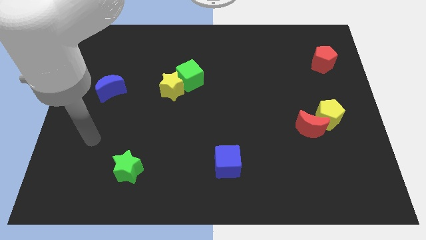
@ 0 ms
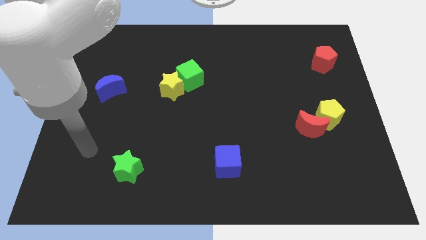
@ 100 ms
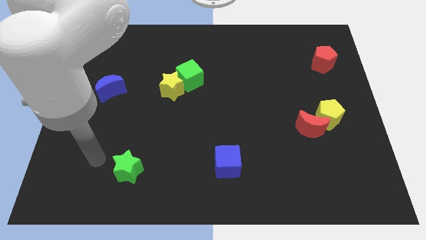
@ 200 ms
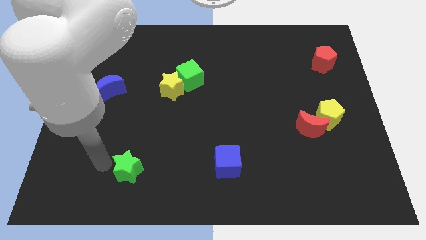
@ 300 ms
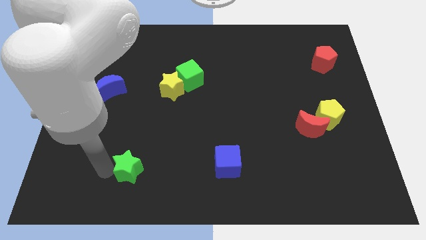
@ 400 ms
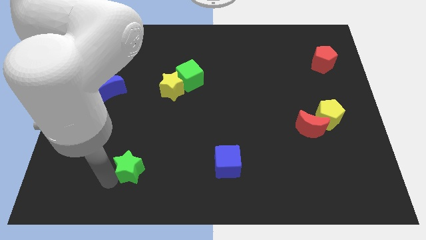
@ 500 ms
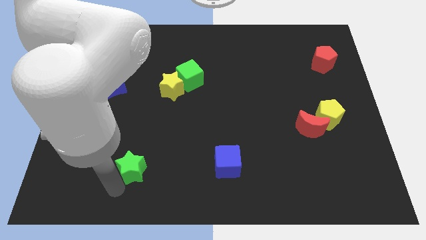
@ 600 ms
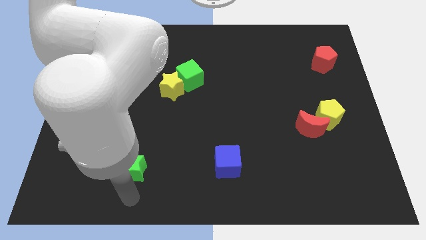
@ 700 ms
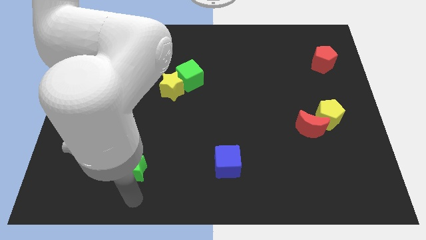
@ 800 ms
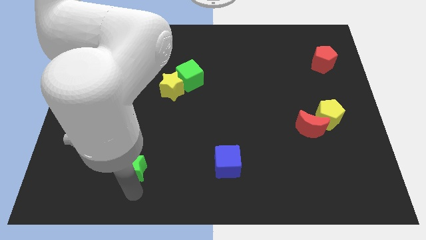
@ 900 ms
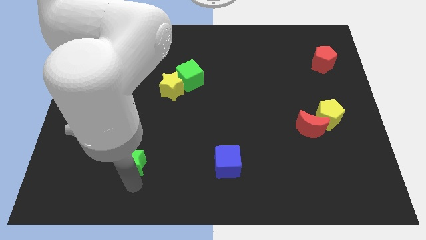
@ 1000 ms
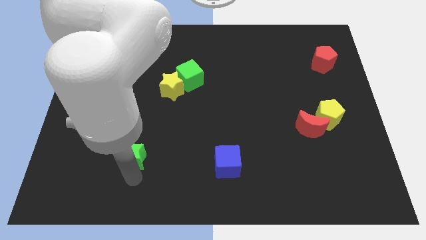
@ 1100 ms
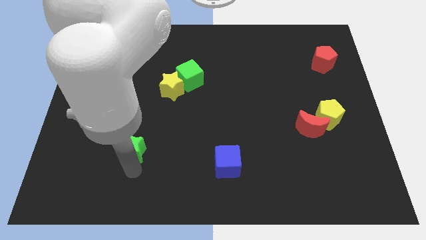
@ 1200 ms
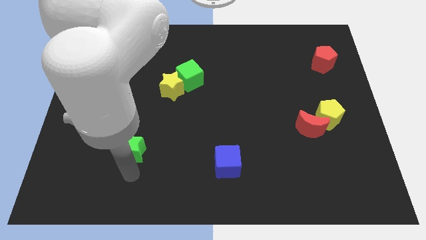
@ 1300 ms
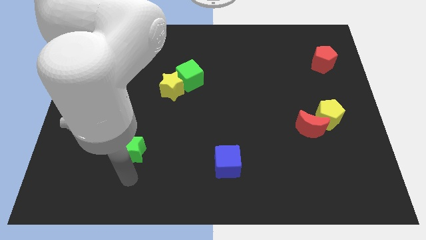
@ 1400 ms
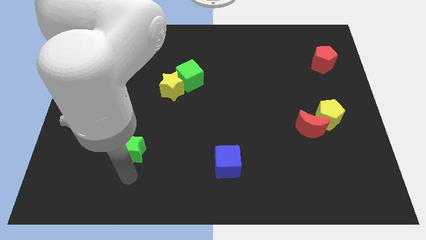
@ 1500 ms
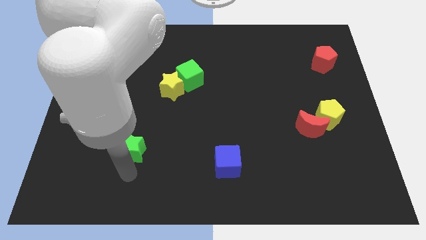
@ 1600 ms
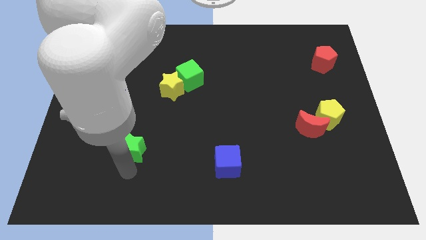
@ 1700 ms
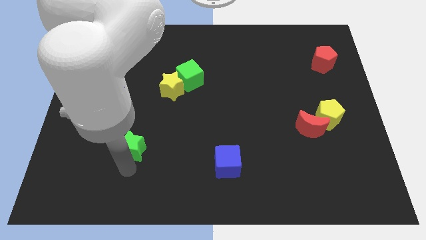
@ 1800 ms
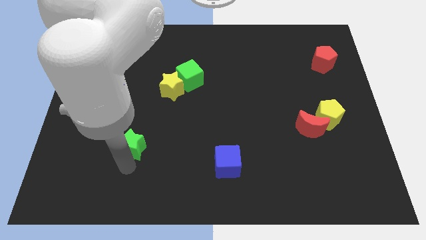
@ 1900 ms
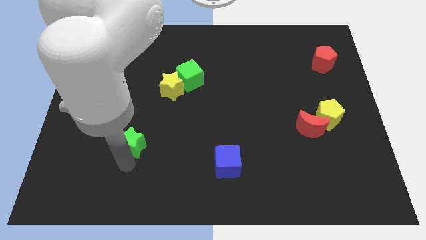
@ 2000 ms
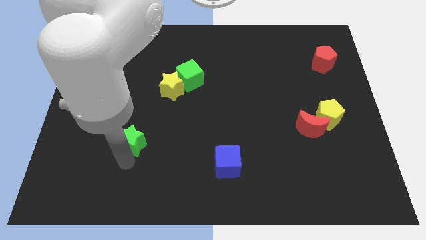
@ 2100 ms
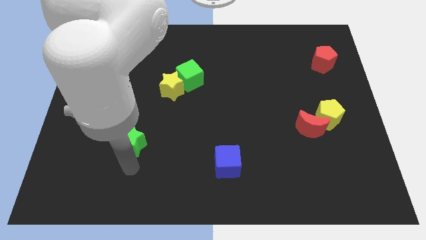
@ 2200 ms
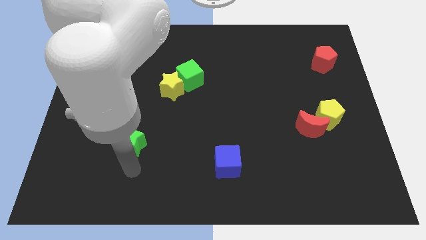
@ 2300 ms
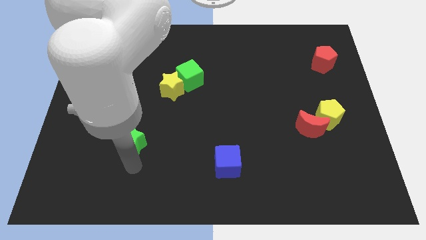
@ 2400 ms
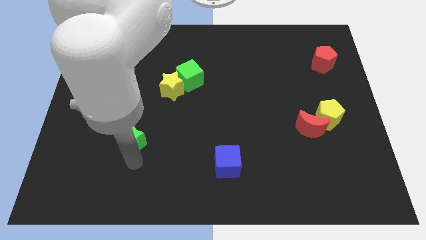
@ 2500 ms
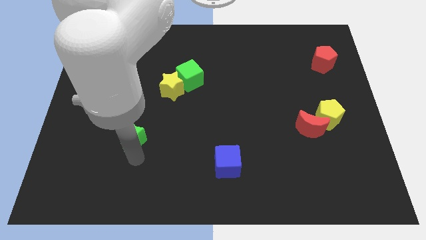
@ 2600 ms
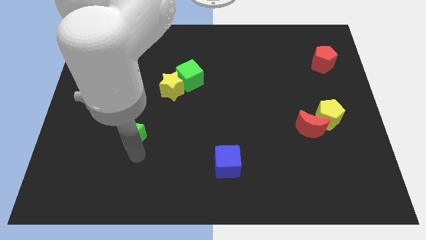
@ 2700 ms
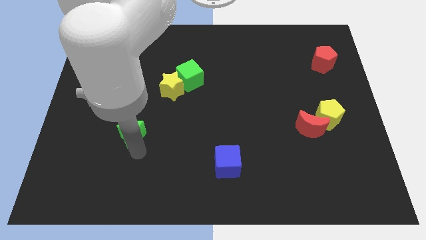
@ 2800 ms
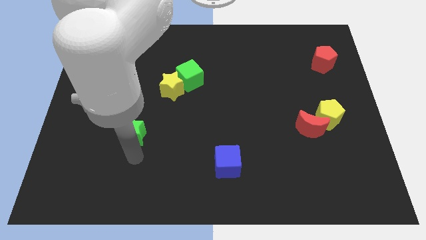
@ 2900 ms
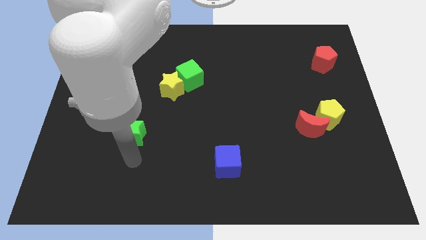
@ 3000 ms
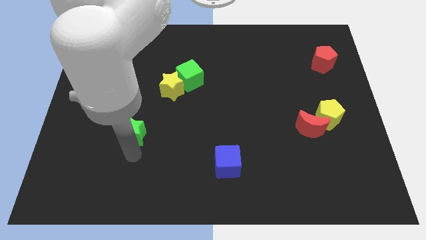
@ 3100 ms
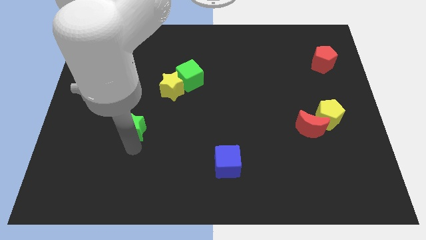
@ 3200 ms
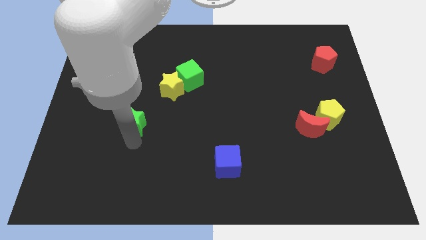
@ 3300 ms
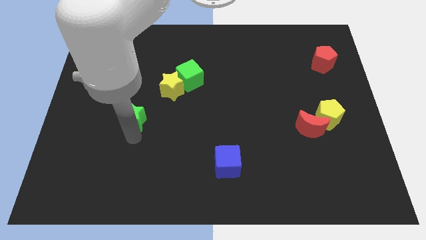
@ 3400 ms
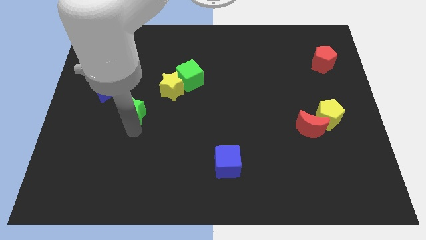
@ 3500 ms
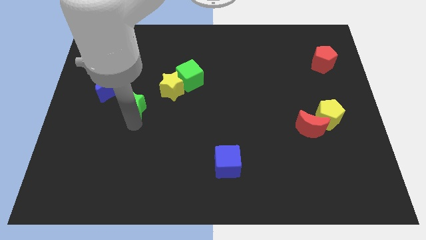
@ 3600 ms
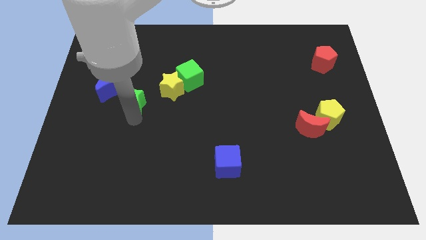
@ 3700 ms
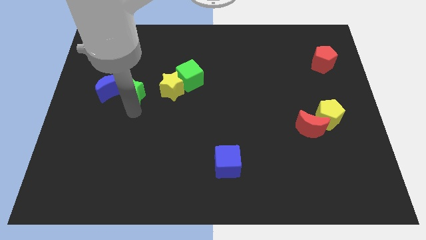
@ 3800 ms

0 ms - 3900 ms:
move the green star upwards

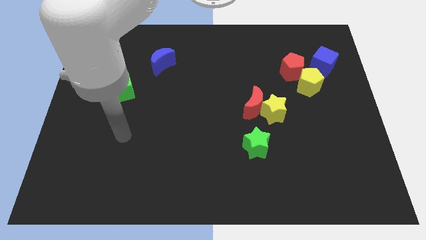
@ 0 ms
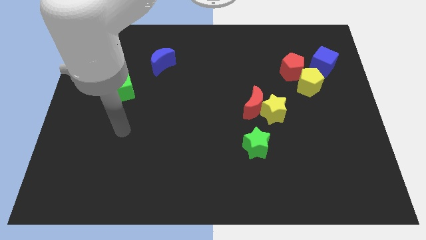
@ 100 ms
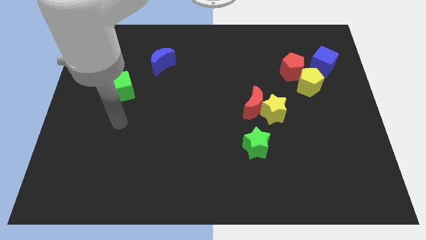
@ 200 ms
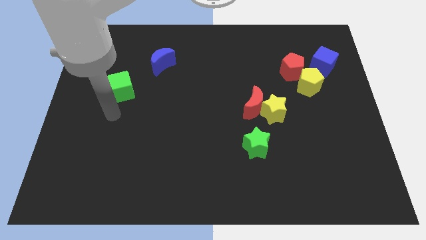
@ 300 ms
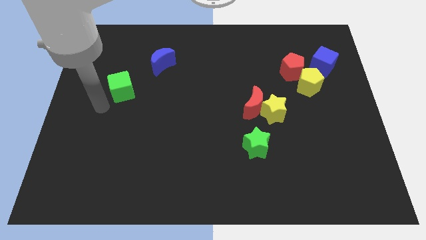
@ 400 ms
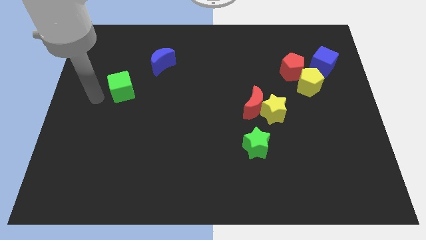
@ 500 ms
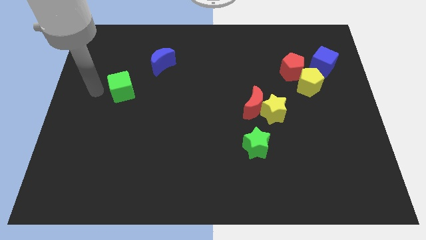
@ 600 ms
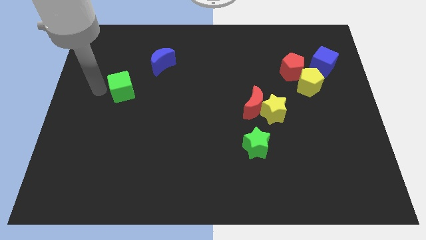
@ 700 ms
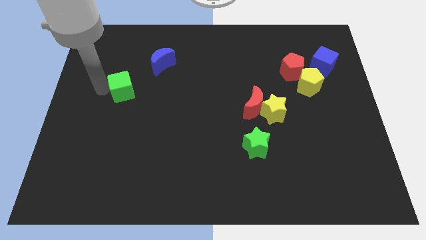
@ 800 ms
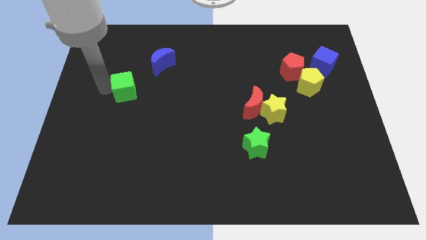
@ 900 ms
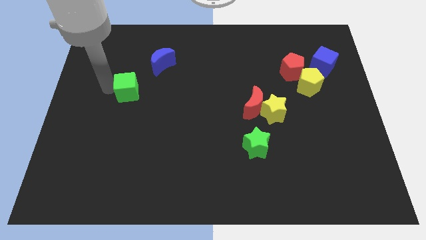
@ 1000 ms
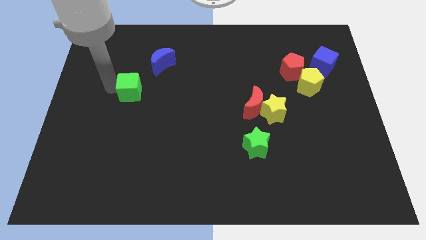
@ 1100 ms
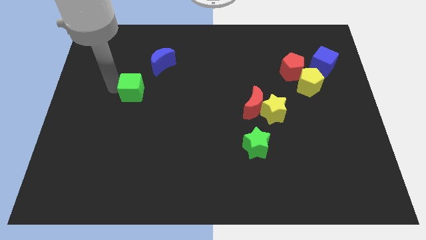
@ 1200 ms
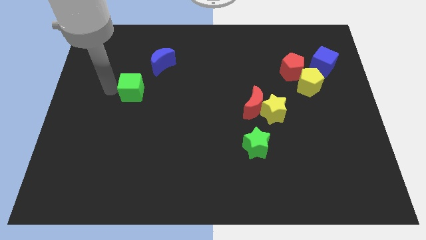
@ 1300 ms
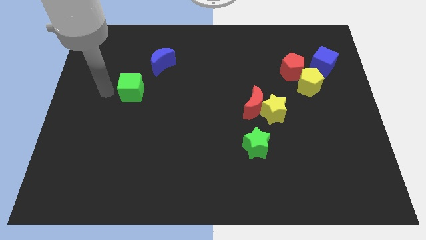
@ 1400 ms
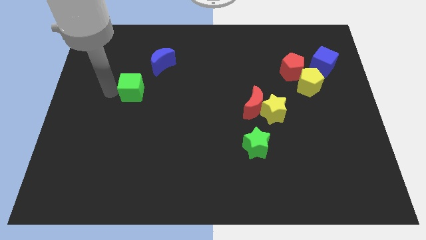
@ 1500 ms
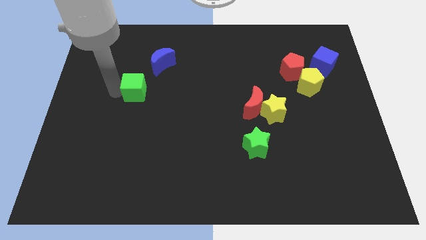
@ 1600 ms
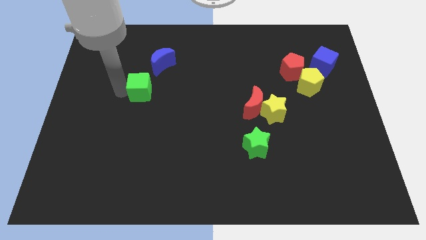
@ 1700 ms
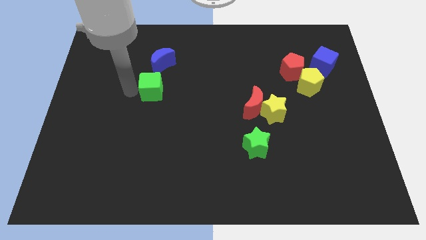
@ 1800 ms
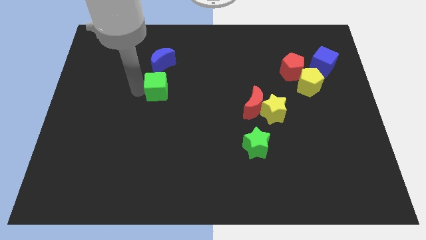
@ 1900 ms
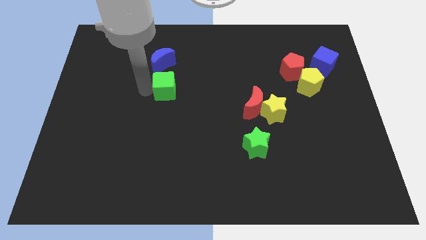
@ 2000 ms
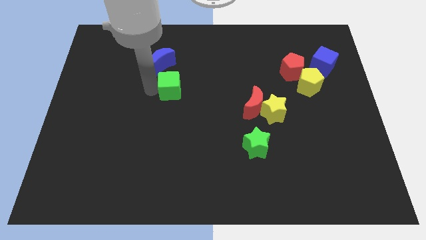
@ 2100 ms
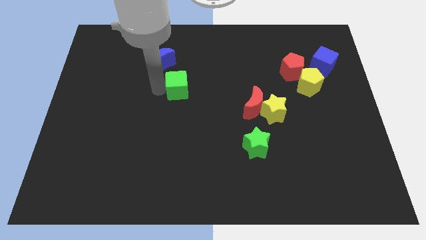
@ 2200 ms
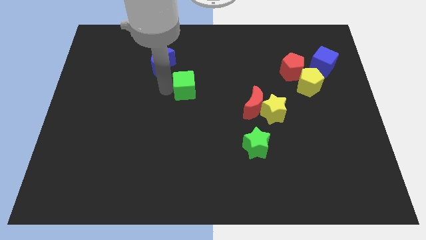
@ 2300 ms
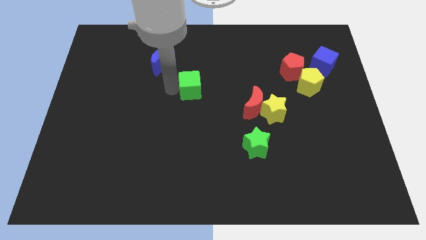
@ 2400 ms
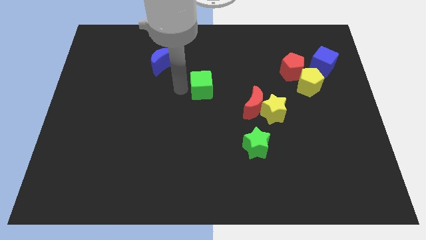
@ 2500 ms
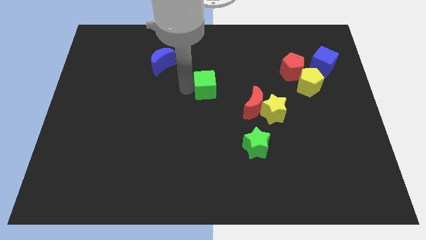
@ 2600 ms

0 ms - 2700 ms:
move the green cube to the right

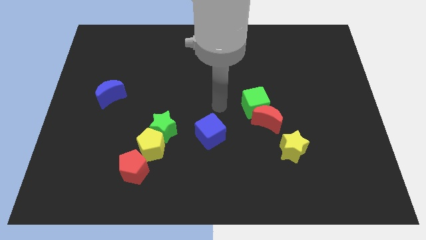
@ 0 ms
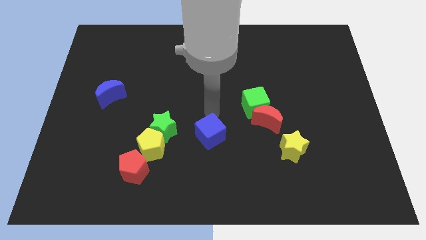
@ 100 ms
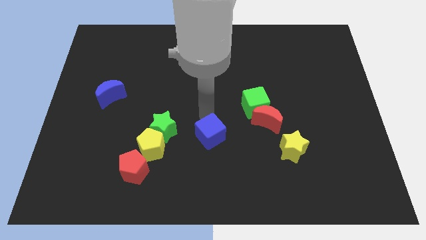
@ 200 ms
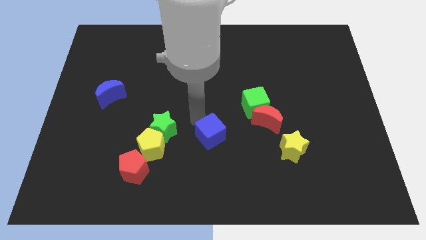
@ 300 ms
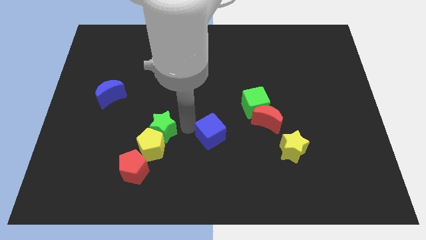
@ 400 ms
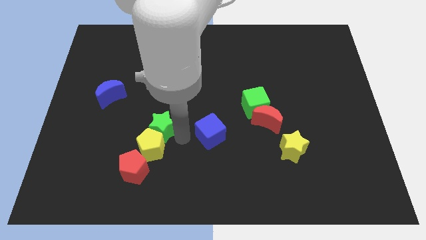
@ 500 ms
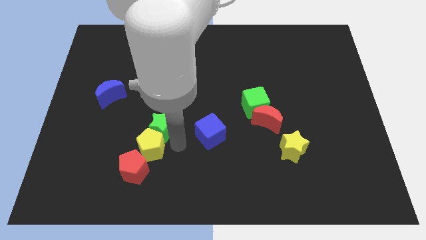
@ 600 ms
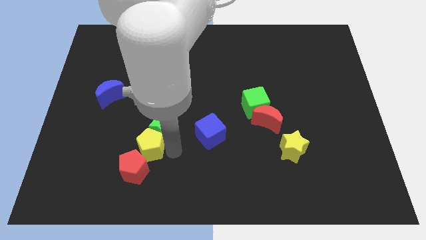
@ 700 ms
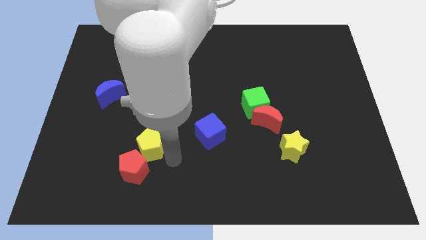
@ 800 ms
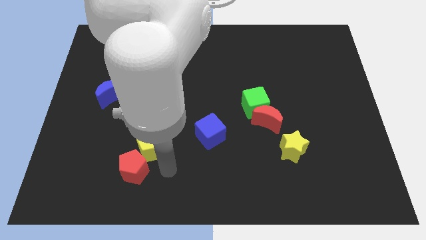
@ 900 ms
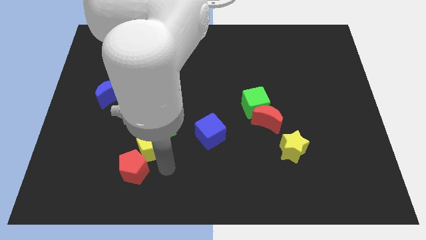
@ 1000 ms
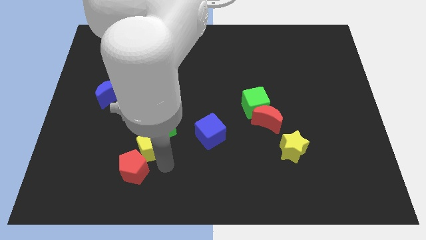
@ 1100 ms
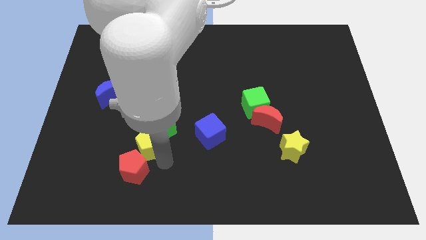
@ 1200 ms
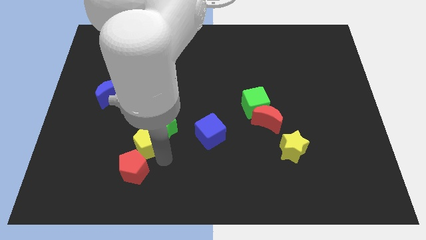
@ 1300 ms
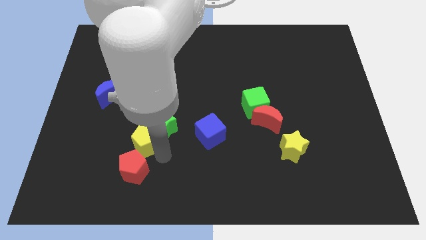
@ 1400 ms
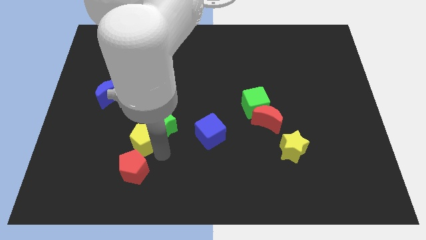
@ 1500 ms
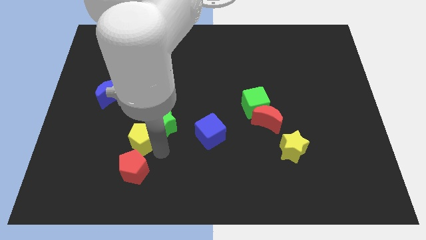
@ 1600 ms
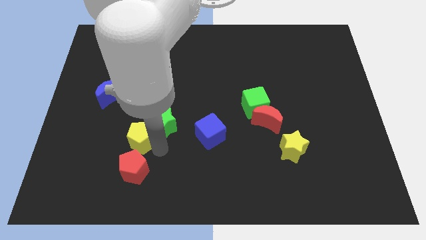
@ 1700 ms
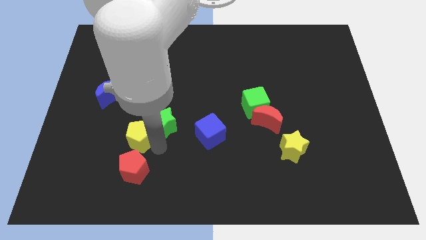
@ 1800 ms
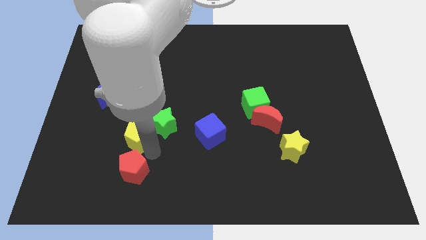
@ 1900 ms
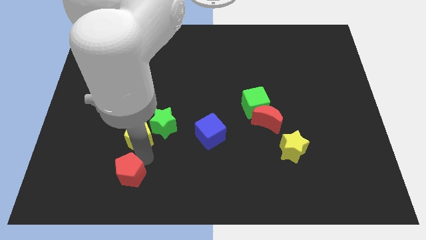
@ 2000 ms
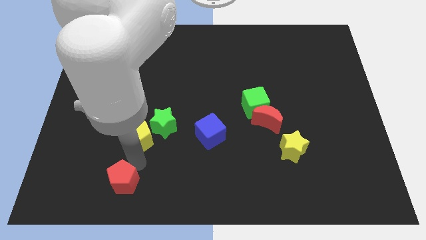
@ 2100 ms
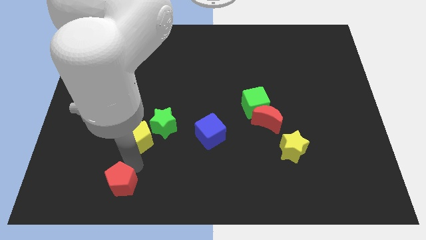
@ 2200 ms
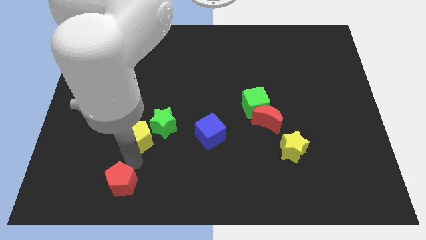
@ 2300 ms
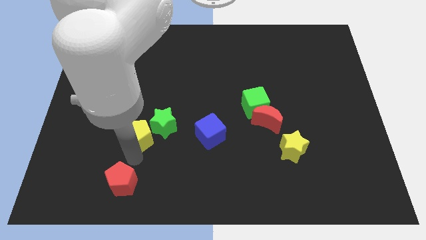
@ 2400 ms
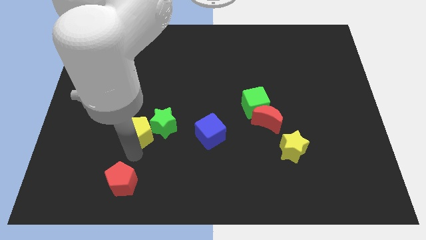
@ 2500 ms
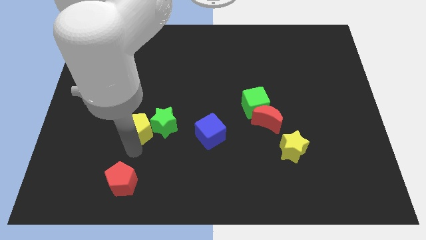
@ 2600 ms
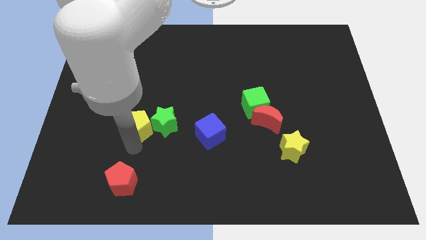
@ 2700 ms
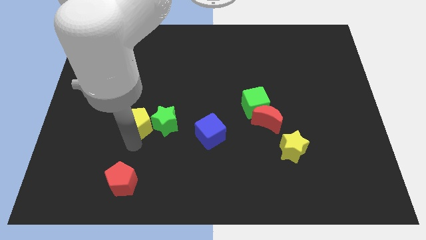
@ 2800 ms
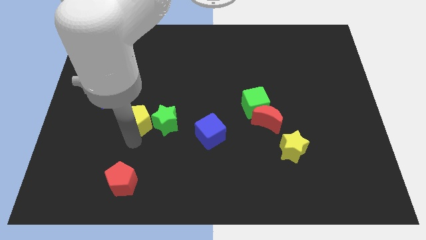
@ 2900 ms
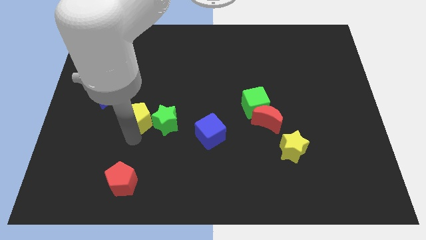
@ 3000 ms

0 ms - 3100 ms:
move the yellow pentagon up somewhat
